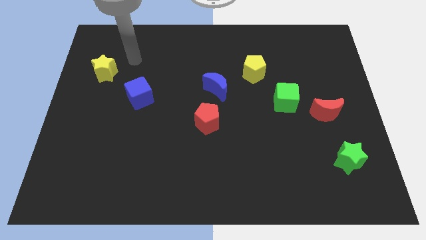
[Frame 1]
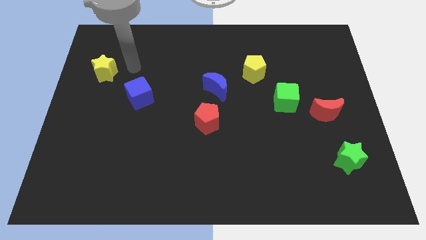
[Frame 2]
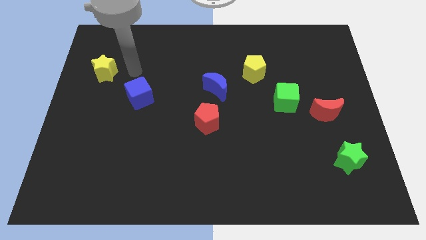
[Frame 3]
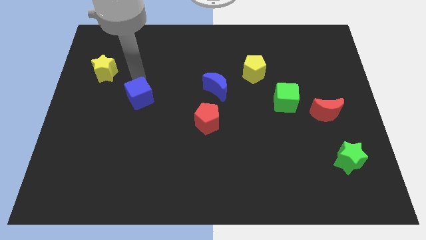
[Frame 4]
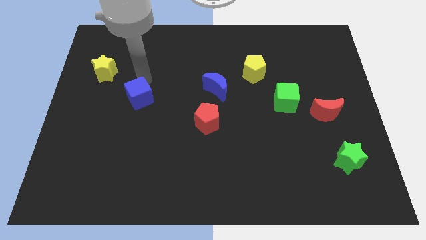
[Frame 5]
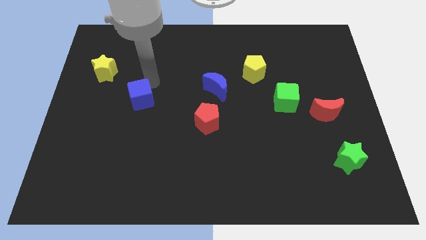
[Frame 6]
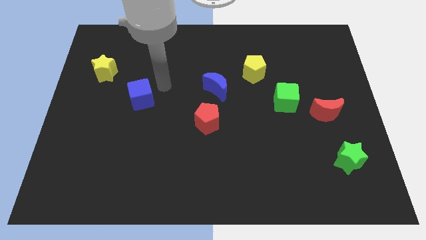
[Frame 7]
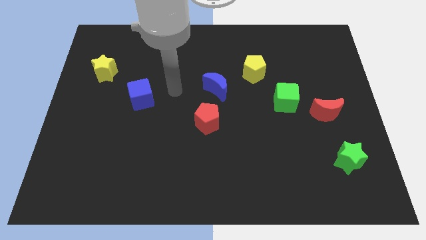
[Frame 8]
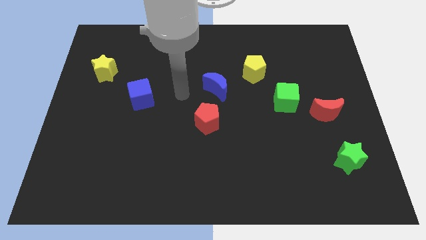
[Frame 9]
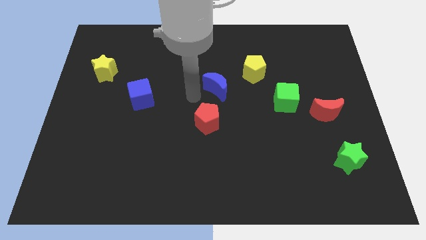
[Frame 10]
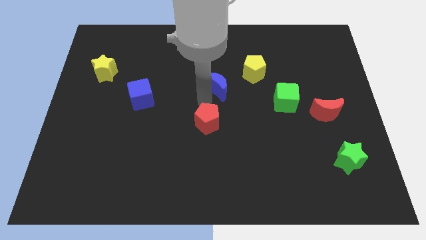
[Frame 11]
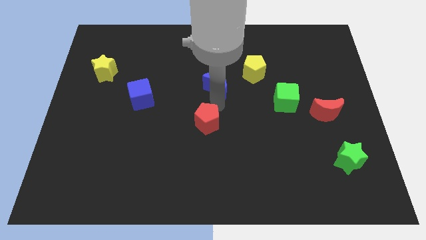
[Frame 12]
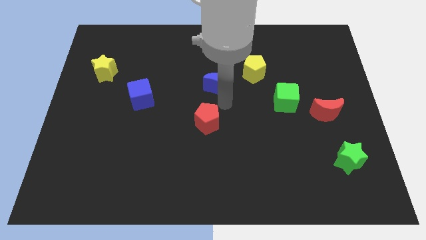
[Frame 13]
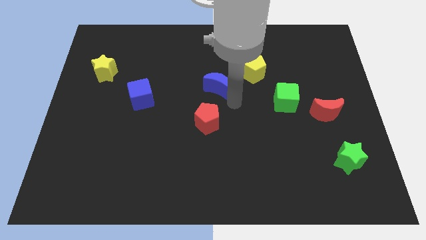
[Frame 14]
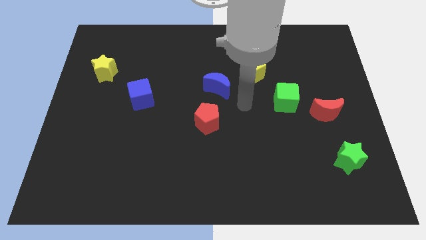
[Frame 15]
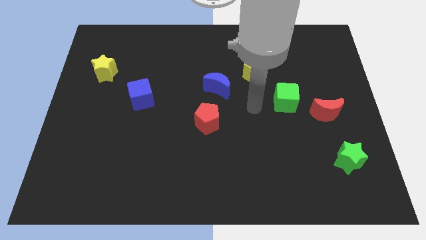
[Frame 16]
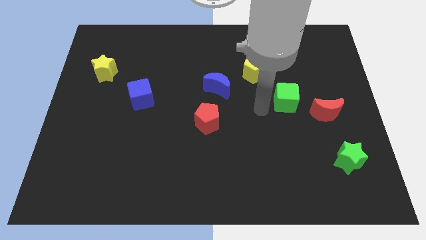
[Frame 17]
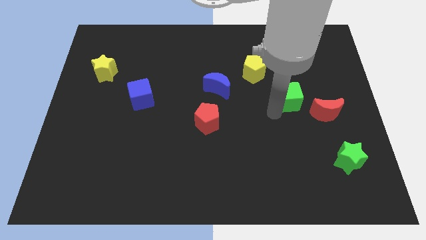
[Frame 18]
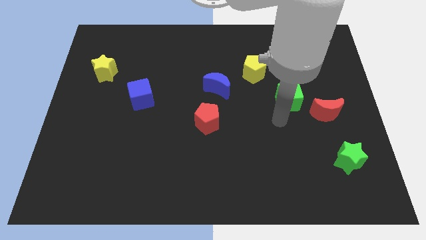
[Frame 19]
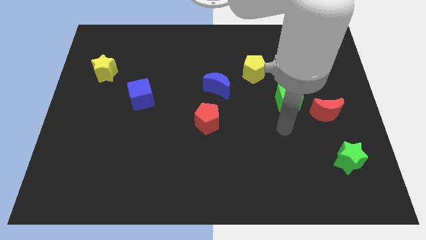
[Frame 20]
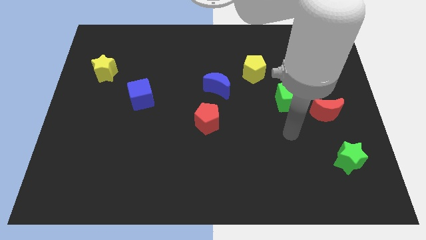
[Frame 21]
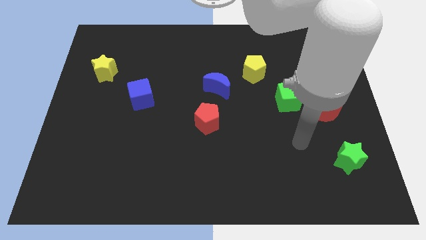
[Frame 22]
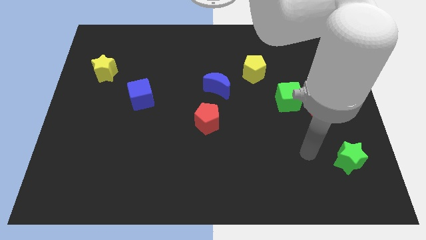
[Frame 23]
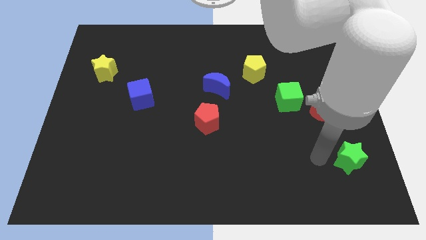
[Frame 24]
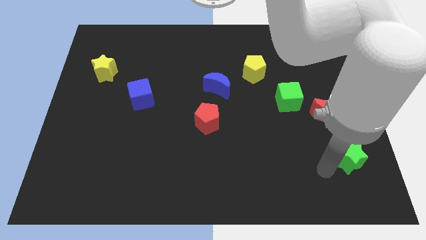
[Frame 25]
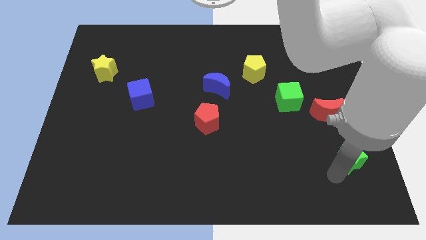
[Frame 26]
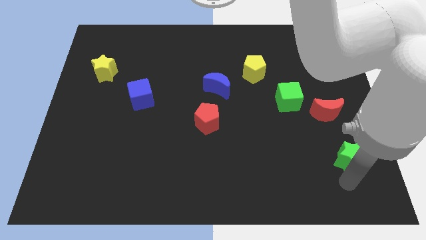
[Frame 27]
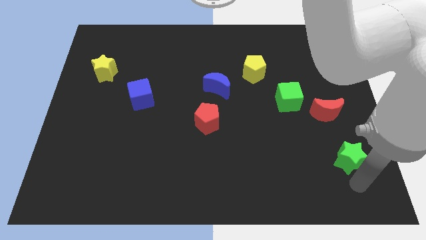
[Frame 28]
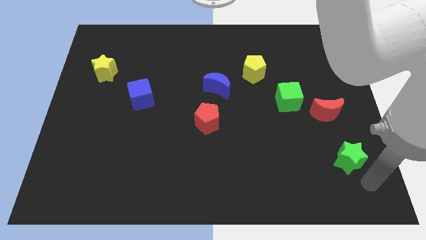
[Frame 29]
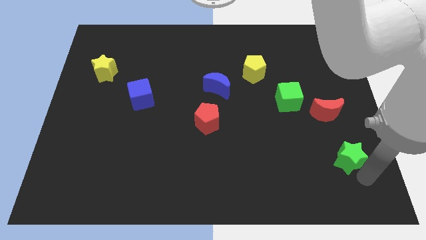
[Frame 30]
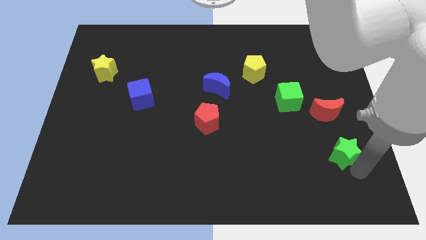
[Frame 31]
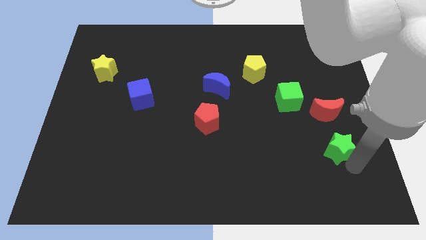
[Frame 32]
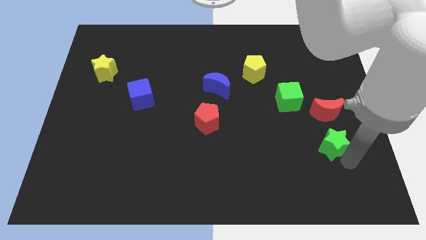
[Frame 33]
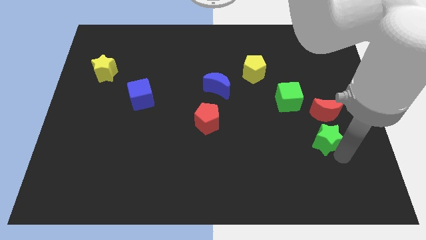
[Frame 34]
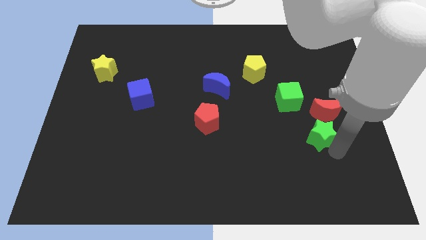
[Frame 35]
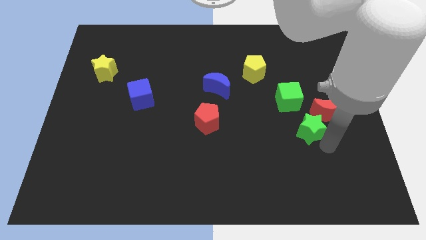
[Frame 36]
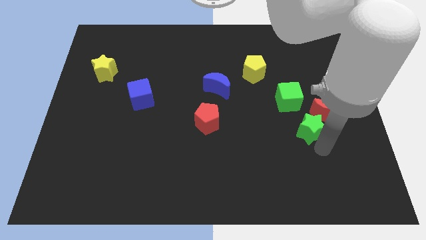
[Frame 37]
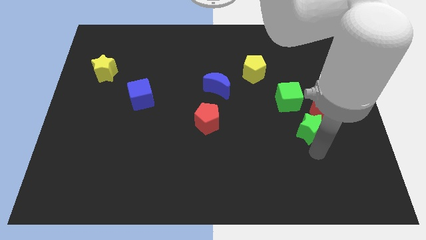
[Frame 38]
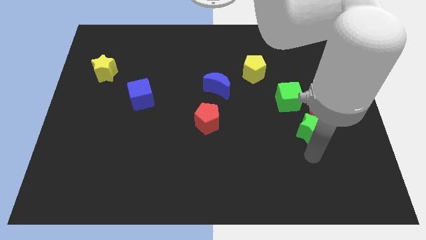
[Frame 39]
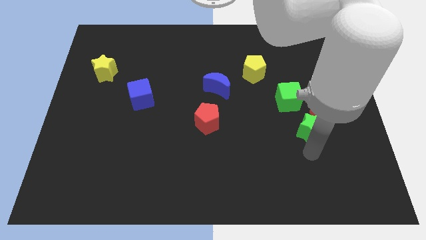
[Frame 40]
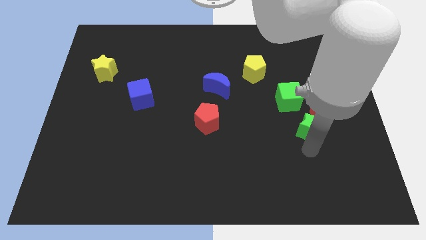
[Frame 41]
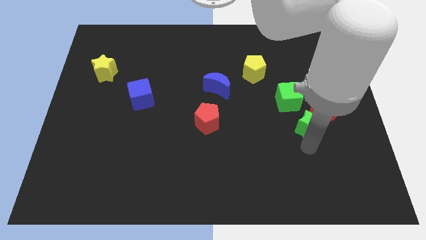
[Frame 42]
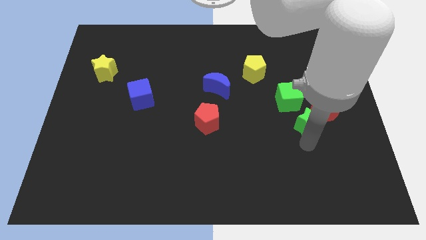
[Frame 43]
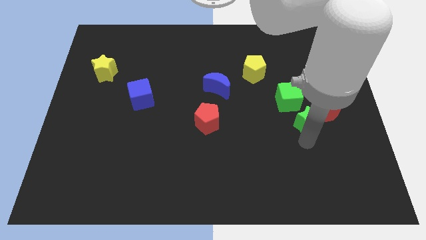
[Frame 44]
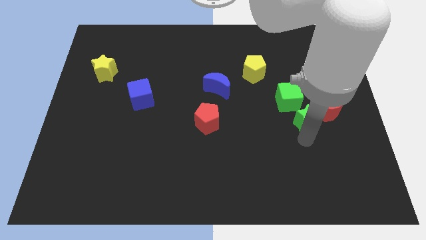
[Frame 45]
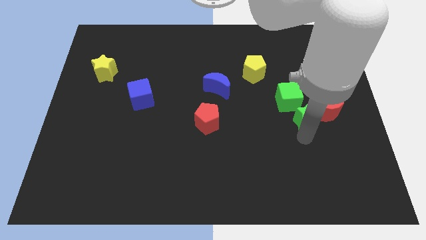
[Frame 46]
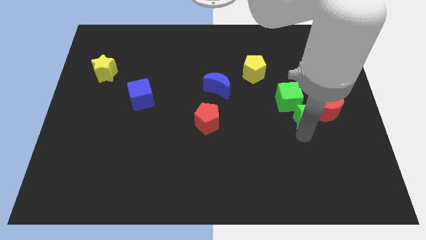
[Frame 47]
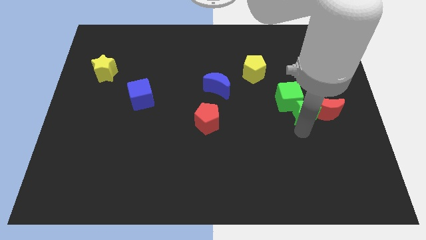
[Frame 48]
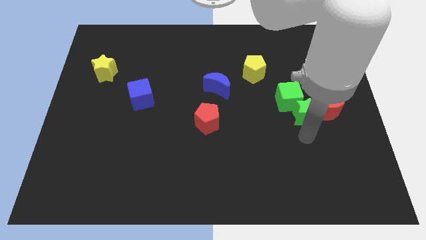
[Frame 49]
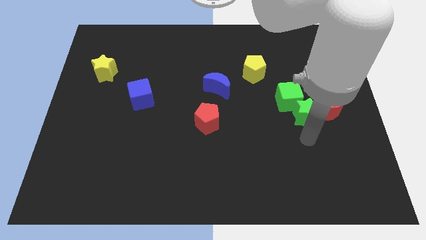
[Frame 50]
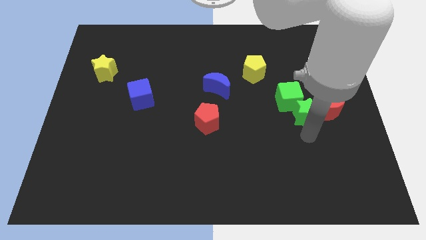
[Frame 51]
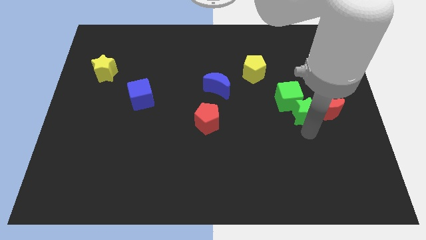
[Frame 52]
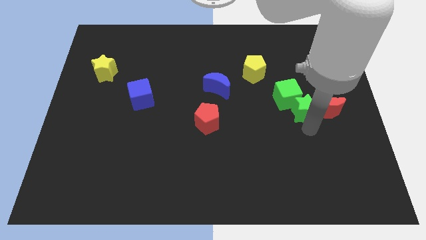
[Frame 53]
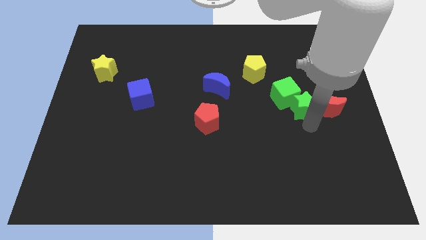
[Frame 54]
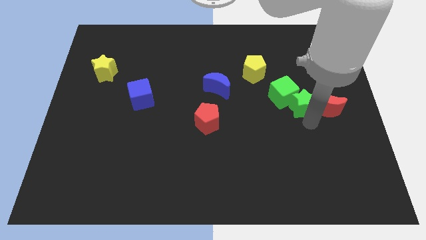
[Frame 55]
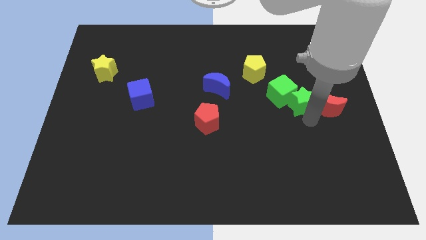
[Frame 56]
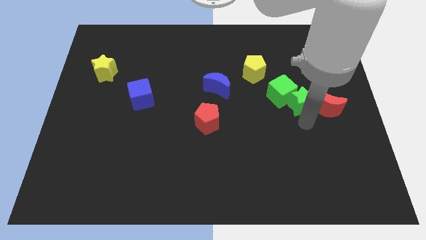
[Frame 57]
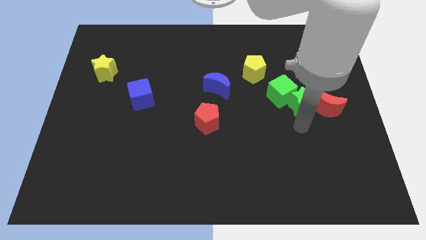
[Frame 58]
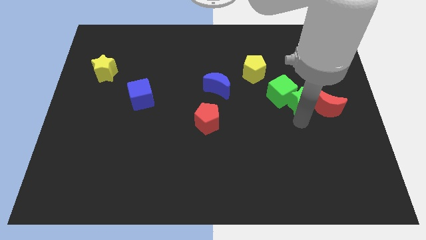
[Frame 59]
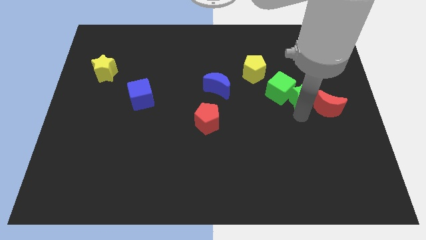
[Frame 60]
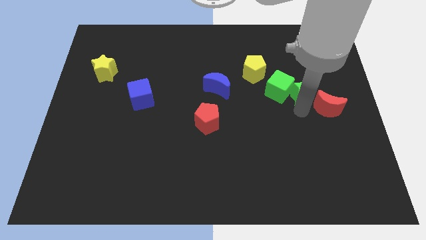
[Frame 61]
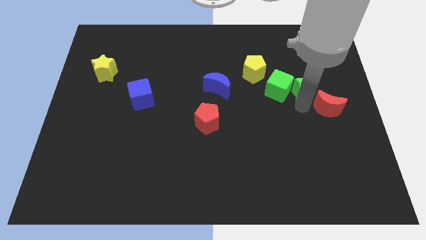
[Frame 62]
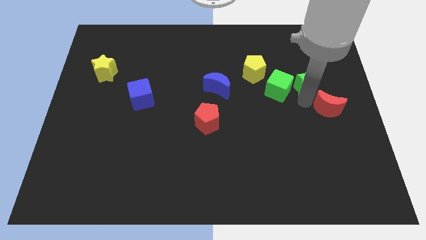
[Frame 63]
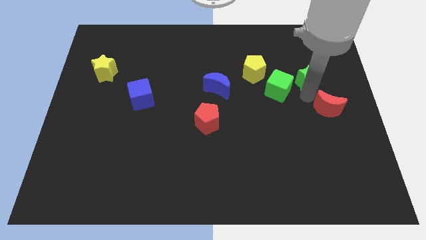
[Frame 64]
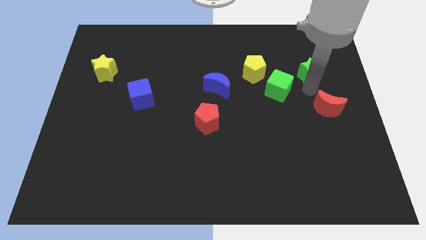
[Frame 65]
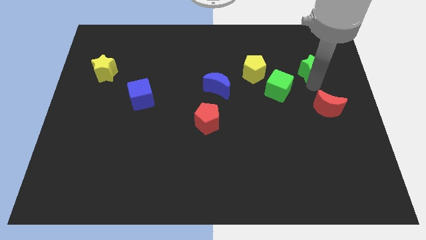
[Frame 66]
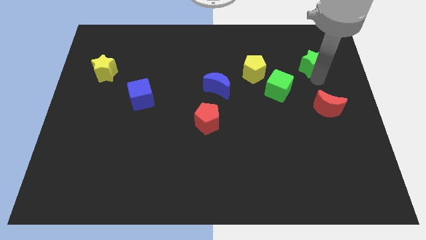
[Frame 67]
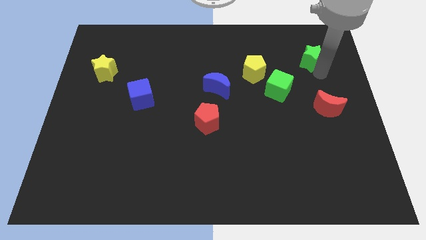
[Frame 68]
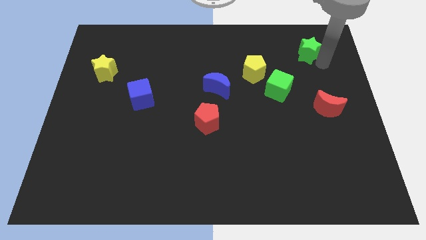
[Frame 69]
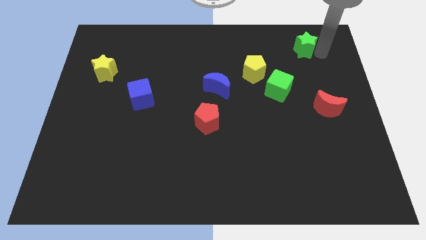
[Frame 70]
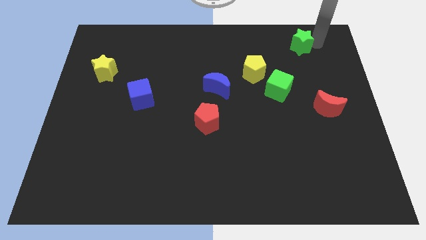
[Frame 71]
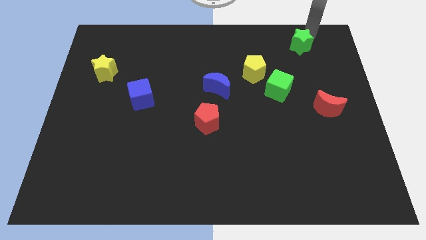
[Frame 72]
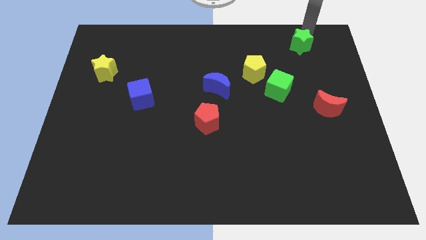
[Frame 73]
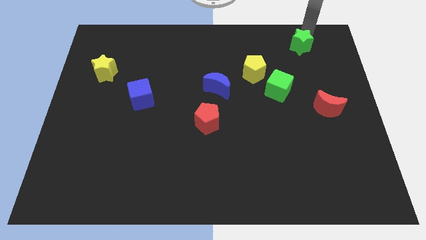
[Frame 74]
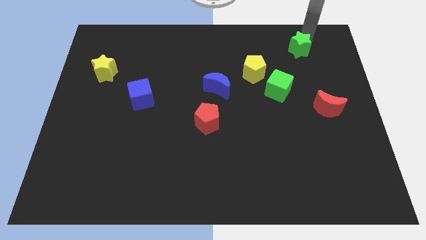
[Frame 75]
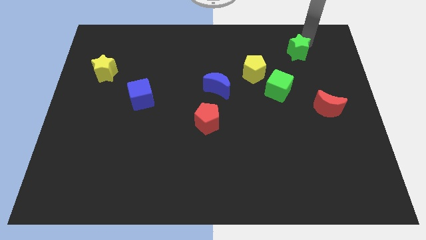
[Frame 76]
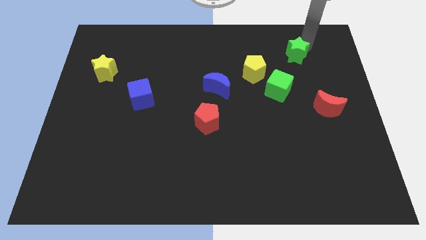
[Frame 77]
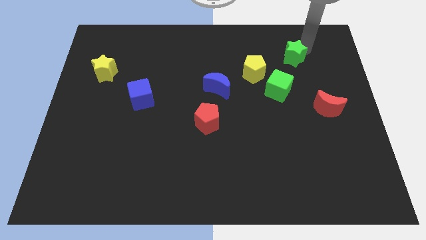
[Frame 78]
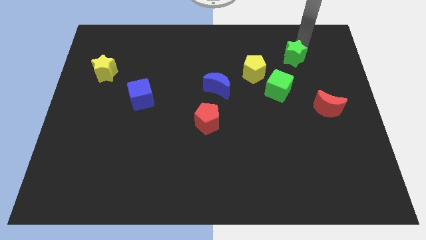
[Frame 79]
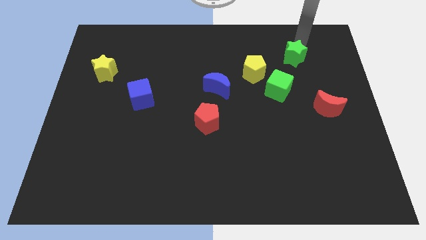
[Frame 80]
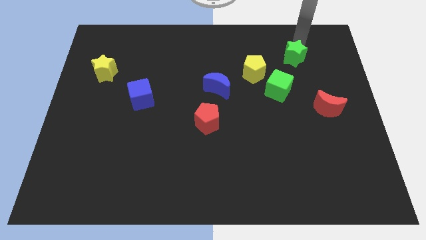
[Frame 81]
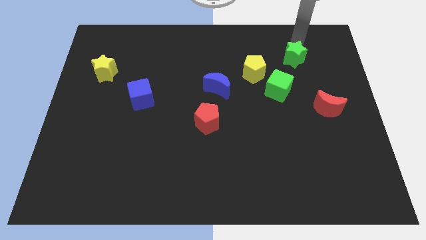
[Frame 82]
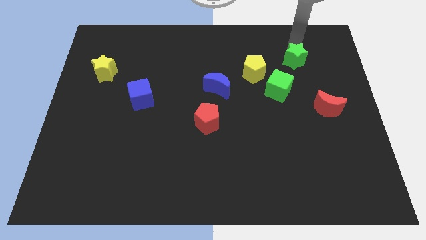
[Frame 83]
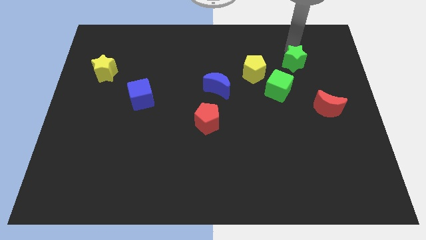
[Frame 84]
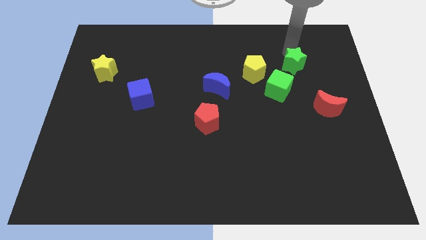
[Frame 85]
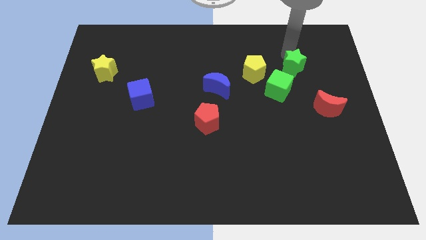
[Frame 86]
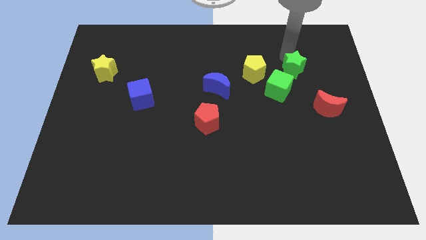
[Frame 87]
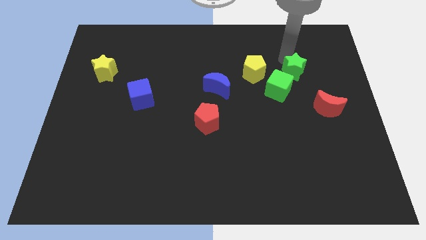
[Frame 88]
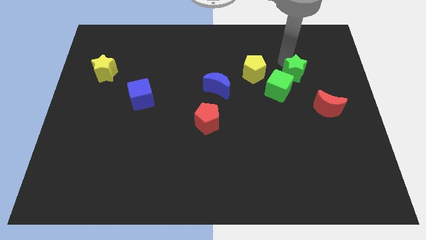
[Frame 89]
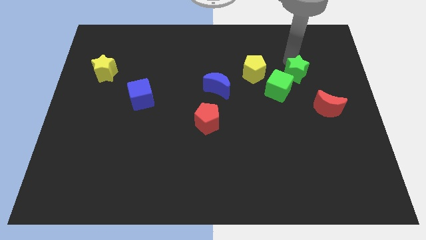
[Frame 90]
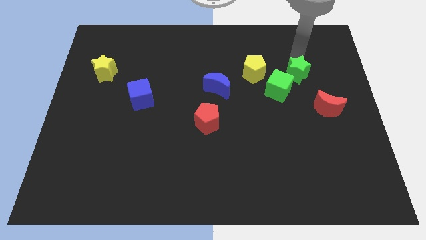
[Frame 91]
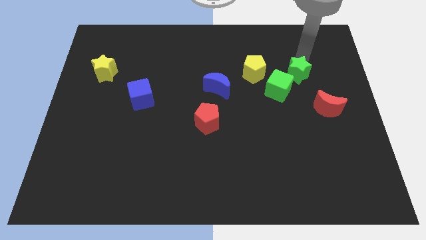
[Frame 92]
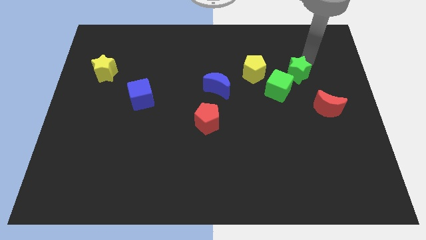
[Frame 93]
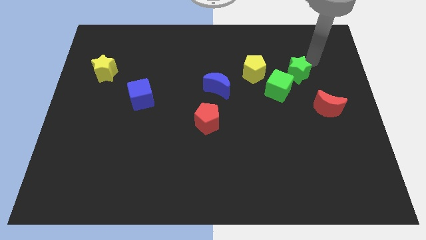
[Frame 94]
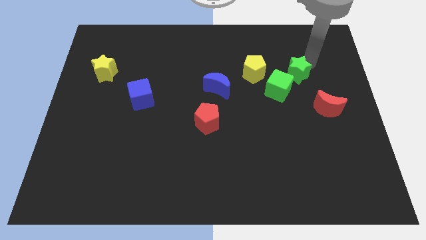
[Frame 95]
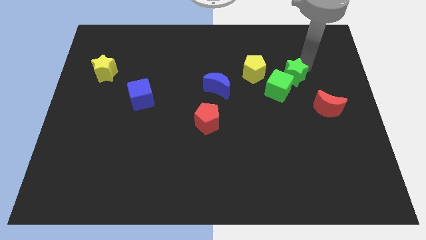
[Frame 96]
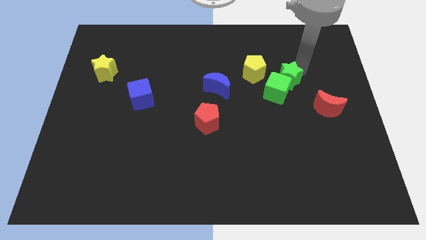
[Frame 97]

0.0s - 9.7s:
move the green star to the bottom right of the yellow pentagon
